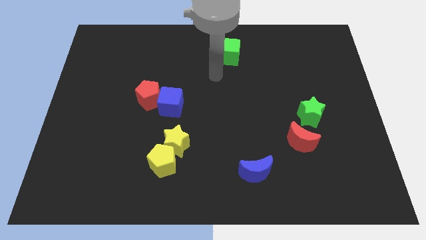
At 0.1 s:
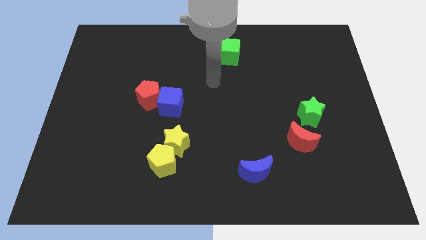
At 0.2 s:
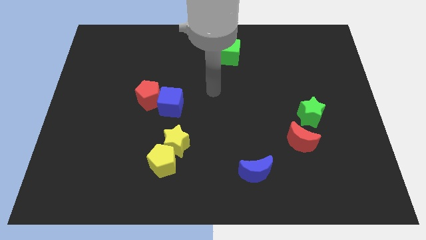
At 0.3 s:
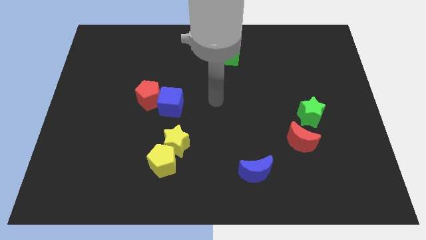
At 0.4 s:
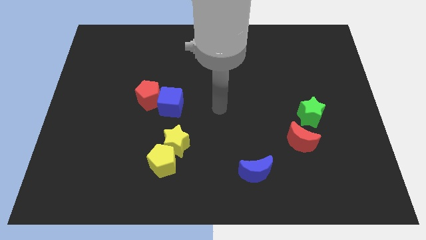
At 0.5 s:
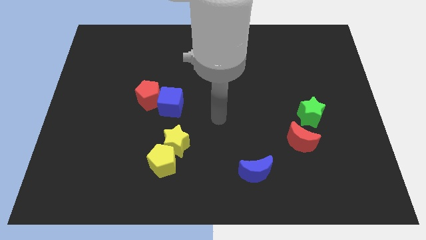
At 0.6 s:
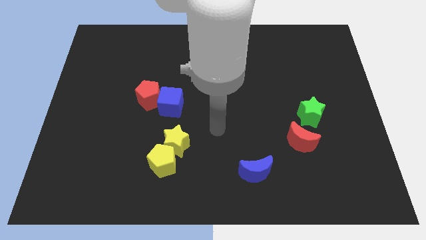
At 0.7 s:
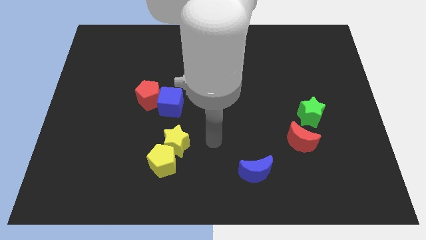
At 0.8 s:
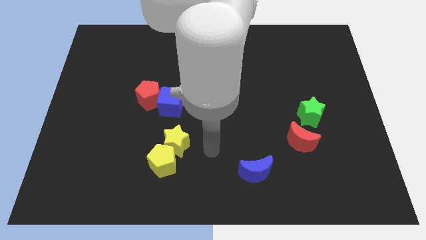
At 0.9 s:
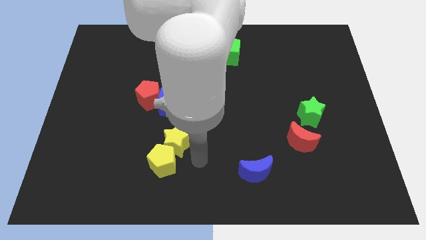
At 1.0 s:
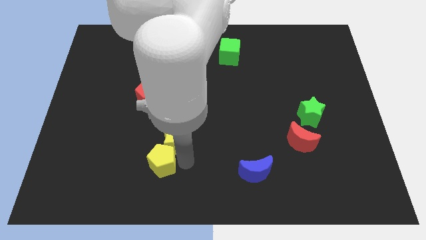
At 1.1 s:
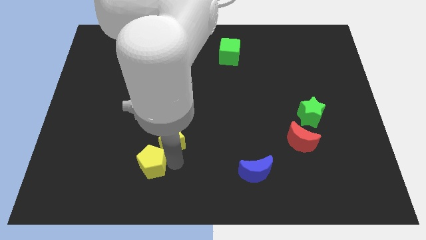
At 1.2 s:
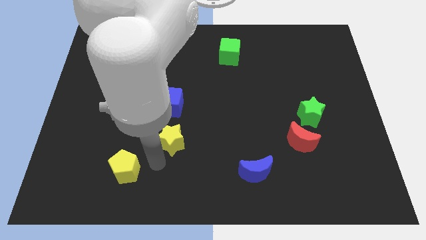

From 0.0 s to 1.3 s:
pull the yellow star apart from the yellow pentagon

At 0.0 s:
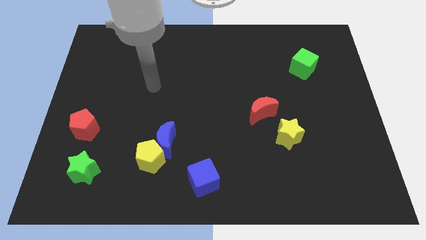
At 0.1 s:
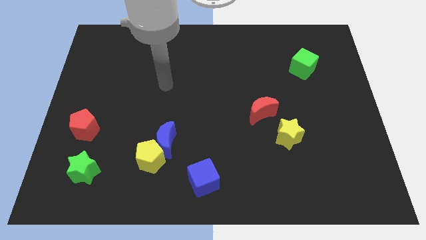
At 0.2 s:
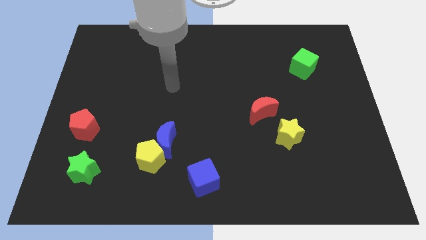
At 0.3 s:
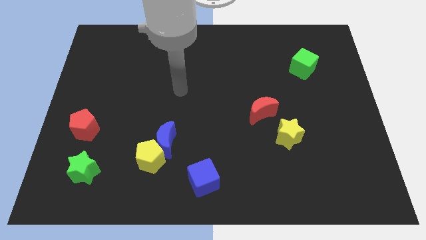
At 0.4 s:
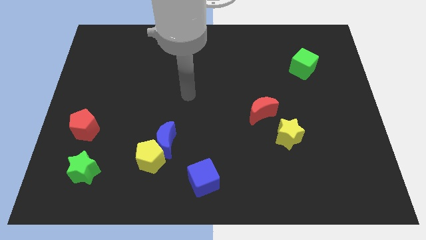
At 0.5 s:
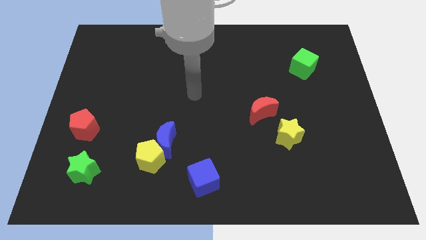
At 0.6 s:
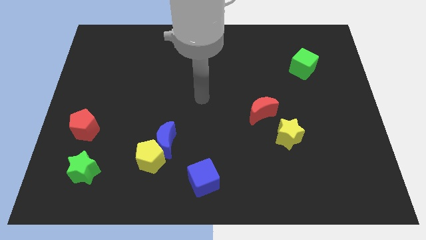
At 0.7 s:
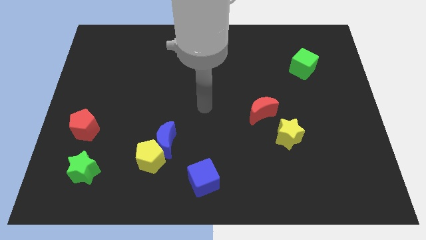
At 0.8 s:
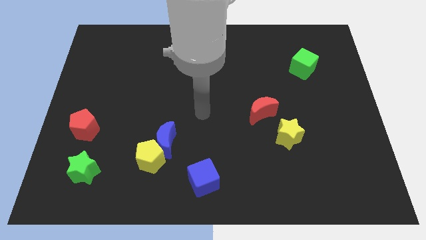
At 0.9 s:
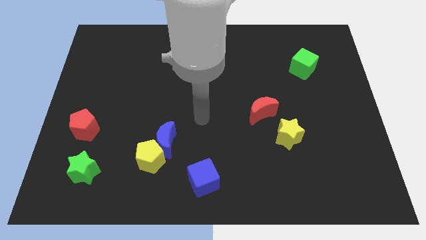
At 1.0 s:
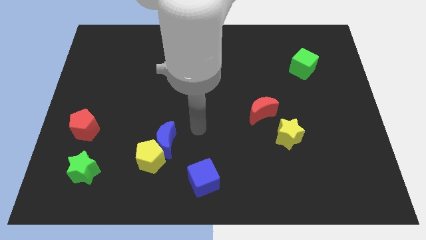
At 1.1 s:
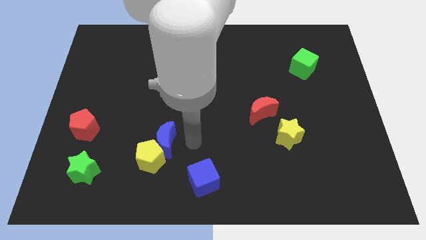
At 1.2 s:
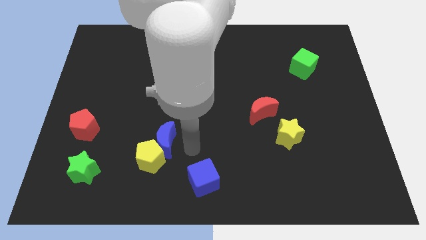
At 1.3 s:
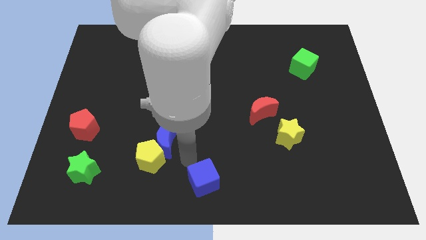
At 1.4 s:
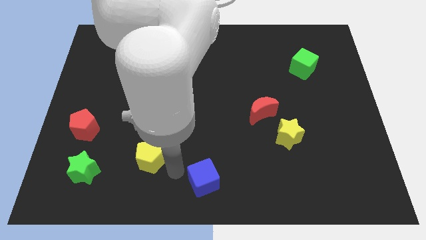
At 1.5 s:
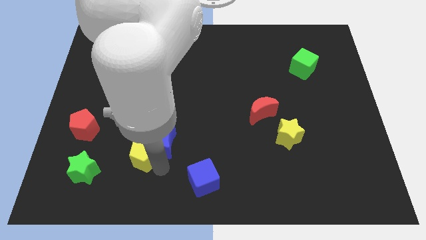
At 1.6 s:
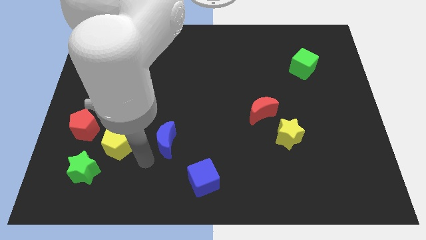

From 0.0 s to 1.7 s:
separate the blue moon from the yellow pentagon

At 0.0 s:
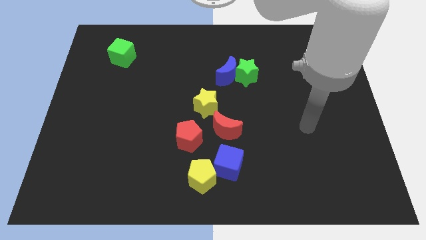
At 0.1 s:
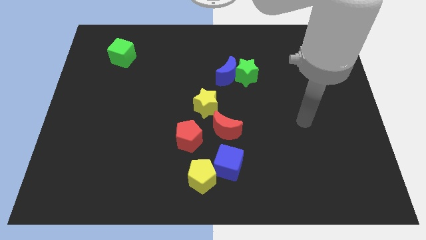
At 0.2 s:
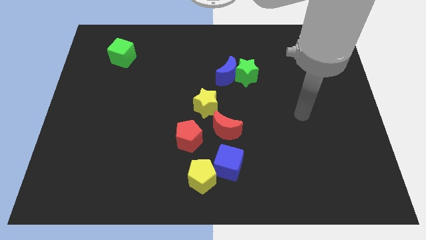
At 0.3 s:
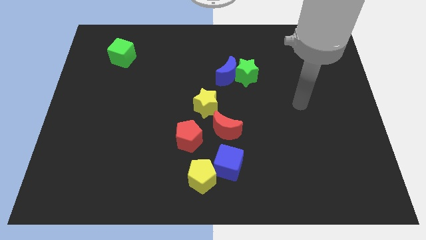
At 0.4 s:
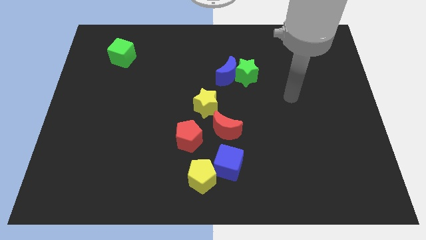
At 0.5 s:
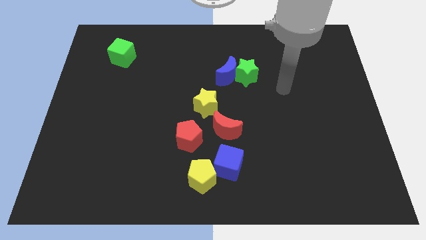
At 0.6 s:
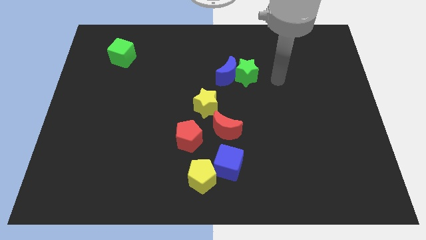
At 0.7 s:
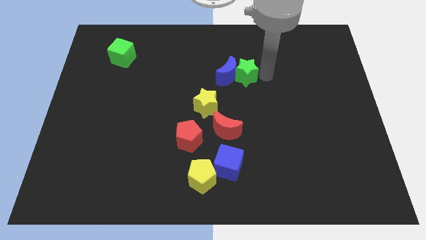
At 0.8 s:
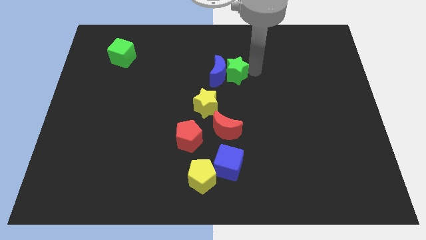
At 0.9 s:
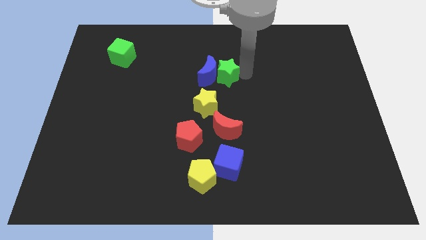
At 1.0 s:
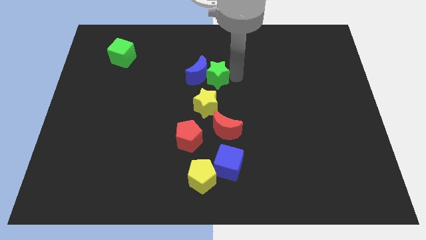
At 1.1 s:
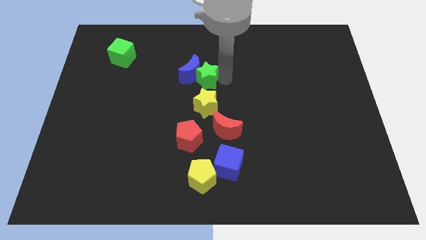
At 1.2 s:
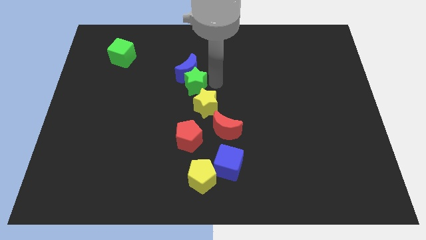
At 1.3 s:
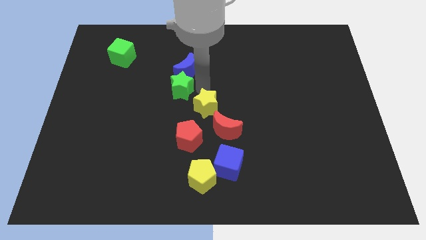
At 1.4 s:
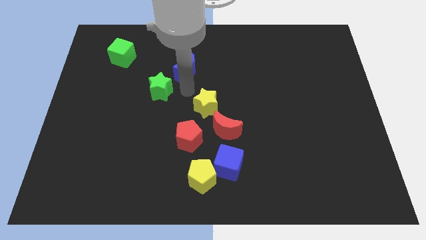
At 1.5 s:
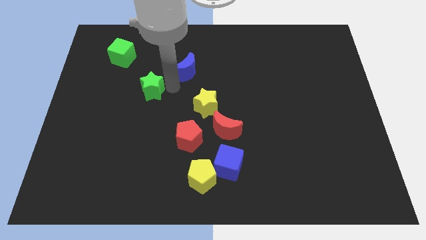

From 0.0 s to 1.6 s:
separate the blue moon from the green star

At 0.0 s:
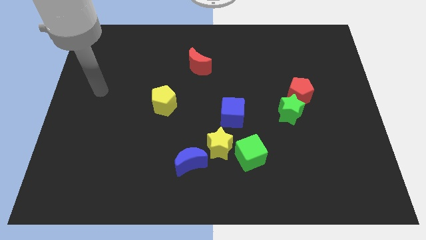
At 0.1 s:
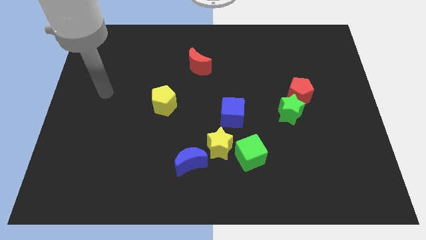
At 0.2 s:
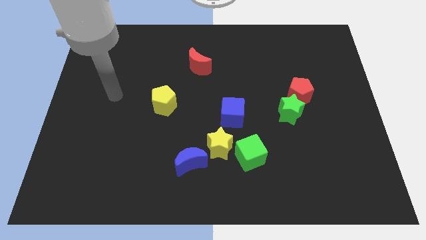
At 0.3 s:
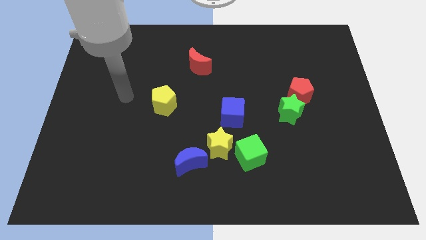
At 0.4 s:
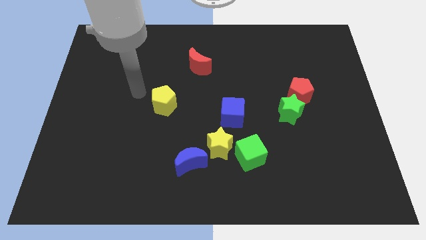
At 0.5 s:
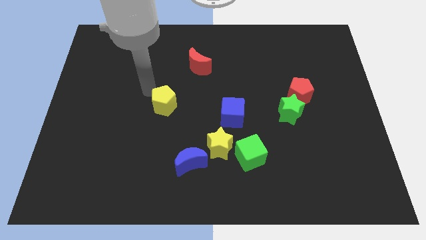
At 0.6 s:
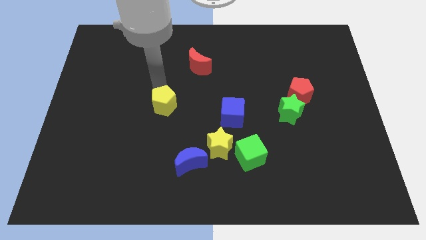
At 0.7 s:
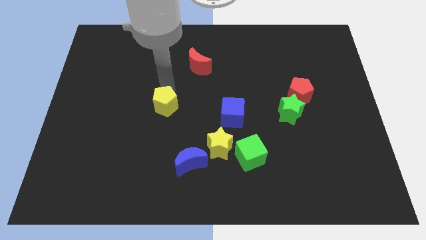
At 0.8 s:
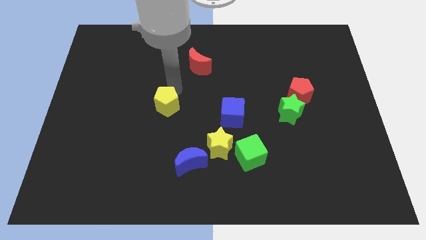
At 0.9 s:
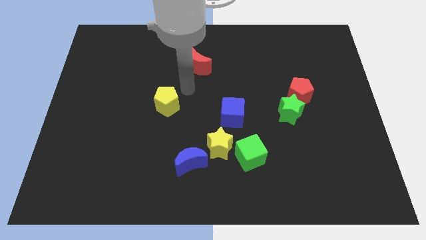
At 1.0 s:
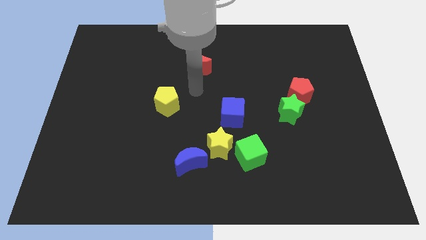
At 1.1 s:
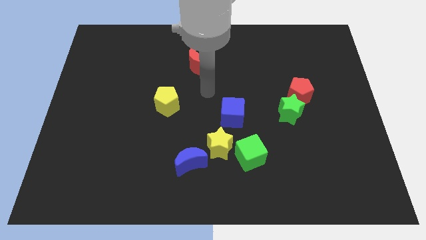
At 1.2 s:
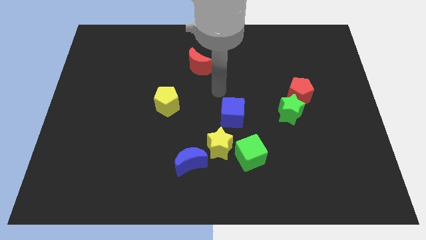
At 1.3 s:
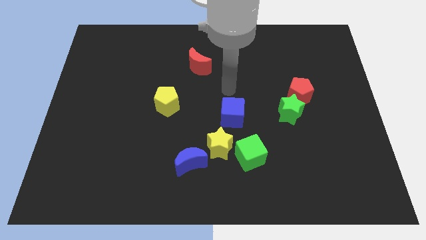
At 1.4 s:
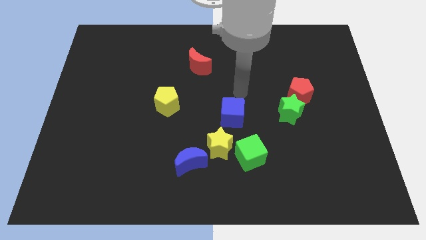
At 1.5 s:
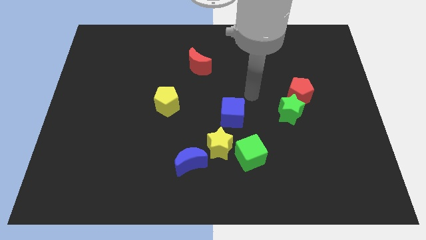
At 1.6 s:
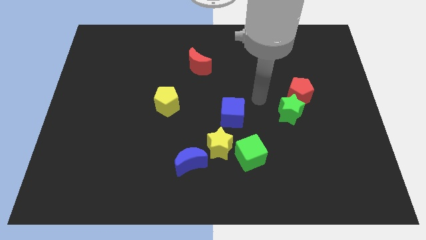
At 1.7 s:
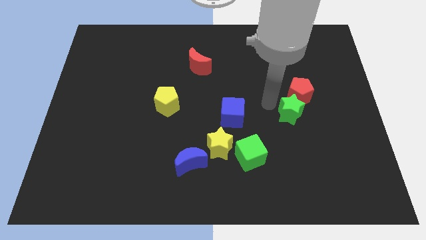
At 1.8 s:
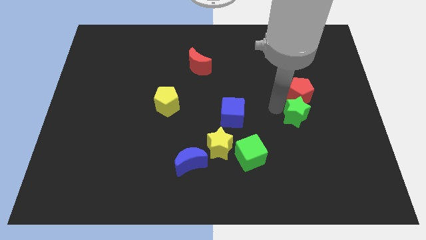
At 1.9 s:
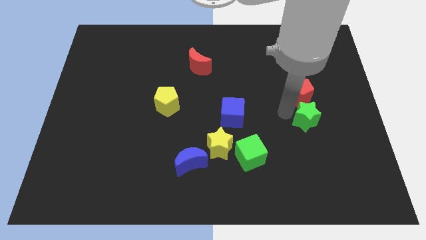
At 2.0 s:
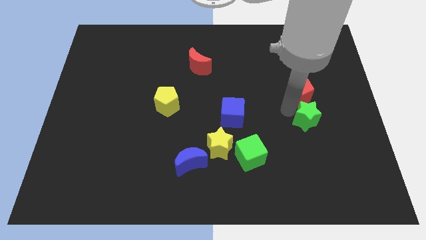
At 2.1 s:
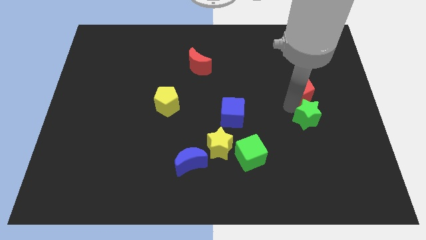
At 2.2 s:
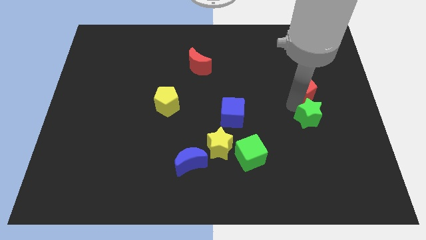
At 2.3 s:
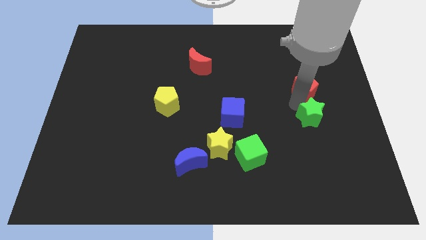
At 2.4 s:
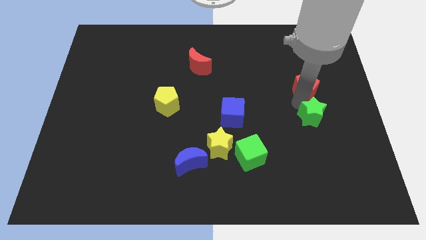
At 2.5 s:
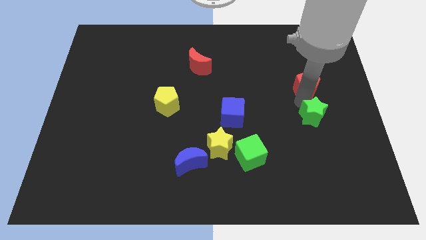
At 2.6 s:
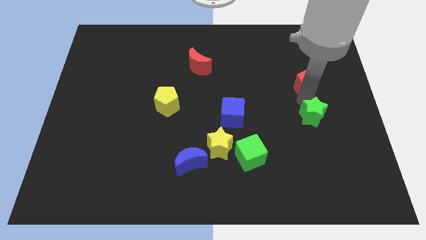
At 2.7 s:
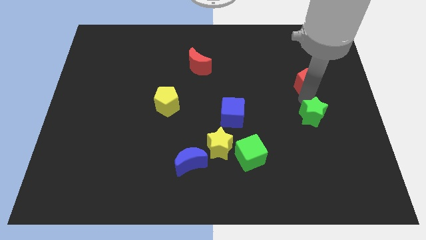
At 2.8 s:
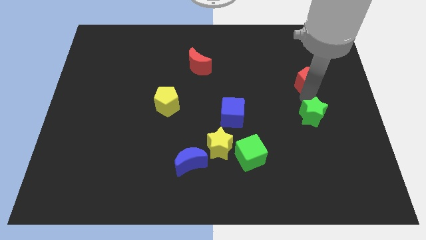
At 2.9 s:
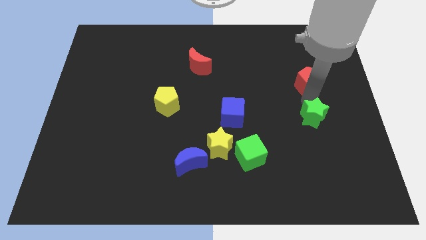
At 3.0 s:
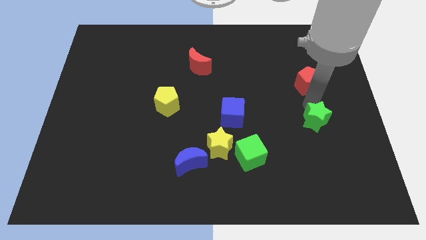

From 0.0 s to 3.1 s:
separate the red pentagon from the green star

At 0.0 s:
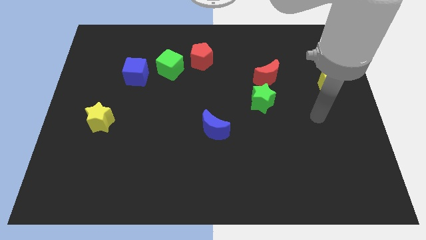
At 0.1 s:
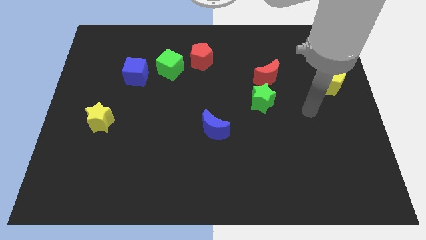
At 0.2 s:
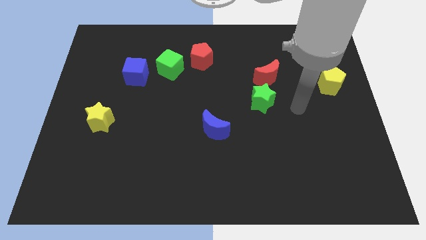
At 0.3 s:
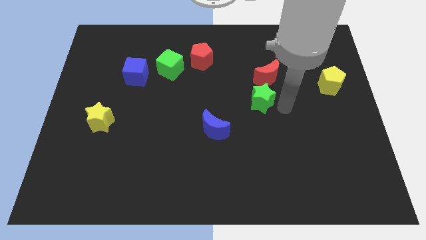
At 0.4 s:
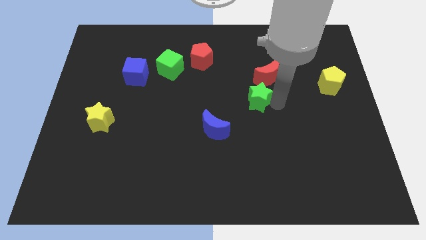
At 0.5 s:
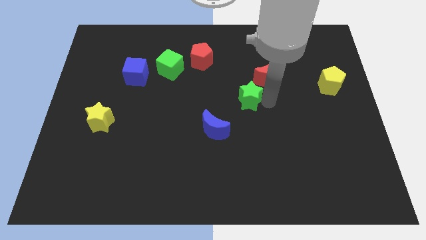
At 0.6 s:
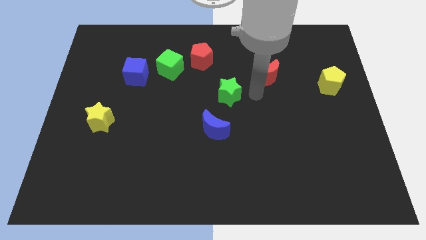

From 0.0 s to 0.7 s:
separate the red moon from the green star

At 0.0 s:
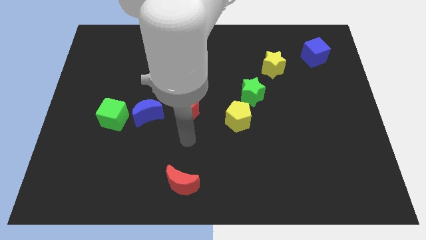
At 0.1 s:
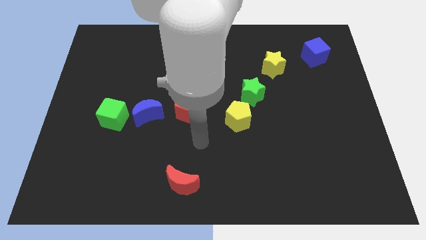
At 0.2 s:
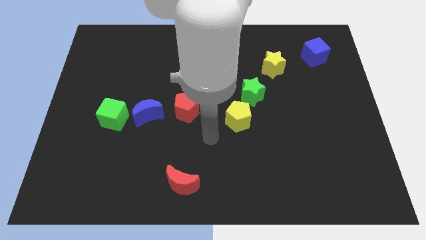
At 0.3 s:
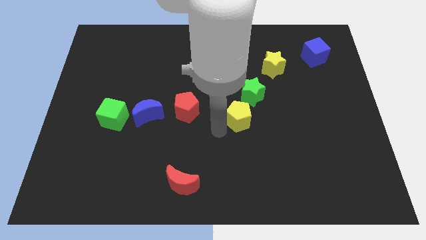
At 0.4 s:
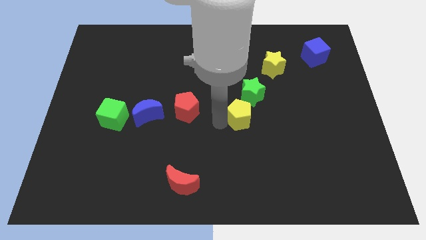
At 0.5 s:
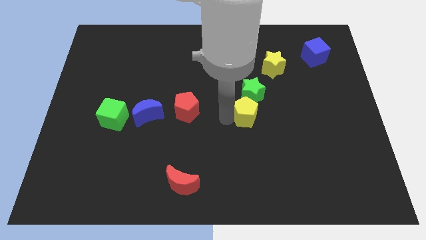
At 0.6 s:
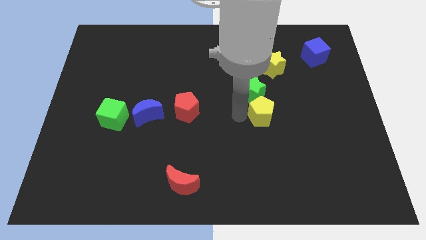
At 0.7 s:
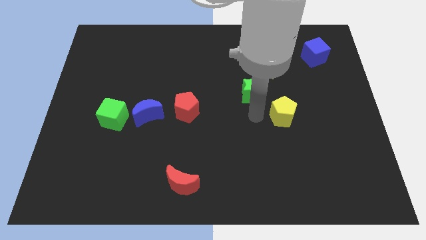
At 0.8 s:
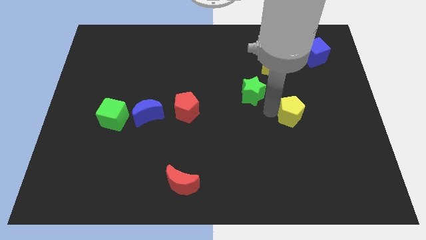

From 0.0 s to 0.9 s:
move the green star away from the yellow pentagon
